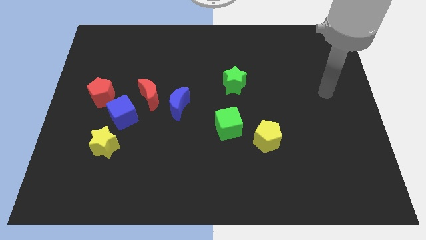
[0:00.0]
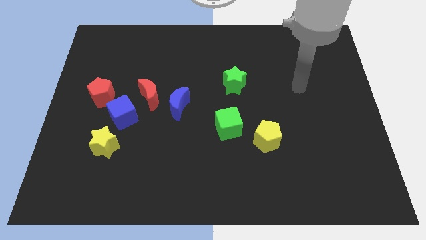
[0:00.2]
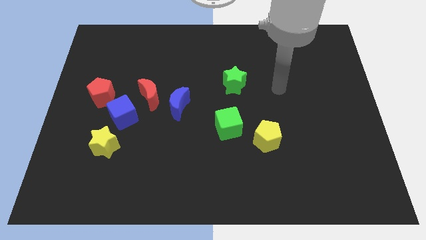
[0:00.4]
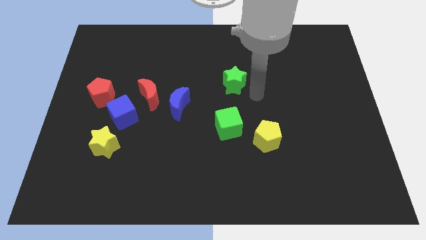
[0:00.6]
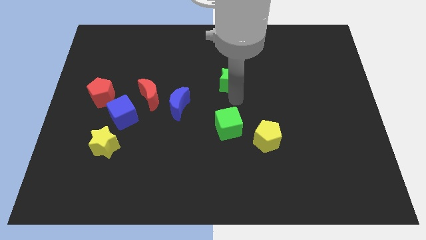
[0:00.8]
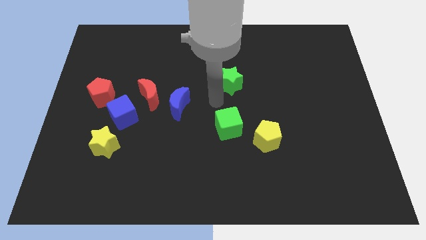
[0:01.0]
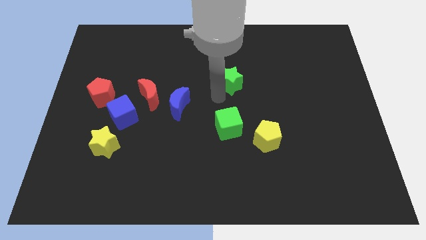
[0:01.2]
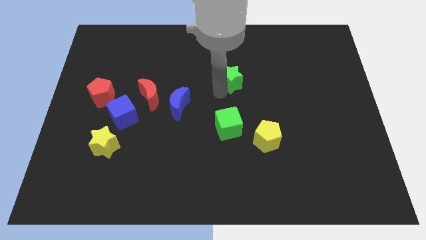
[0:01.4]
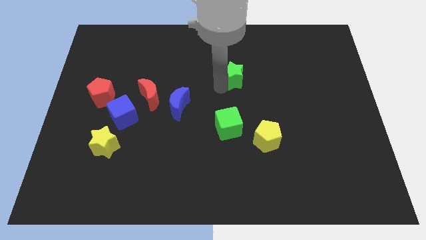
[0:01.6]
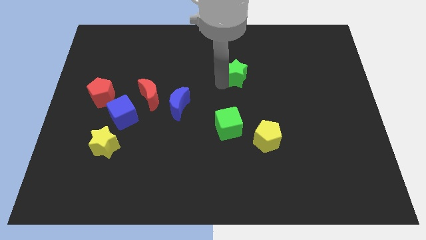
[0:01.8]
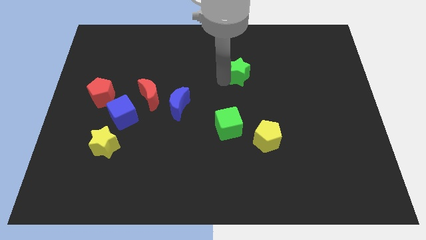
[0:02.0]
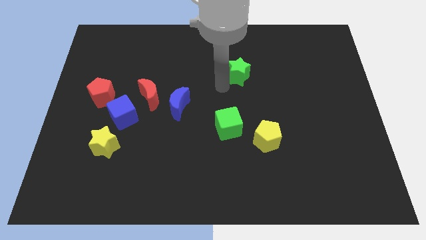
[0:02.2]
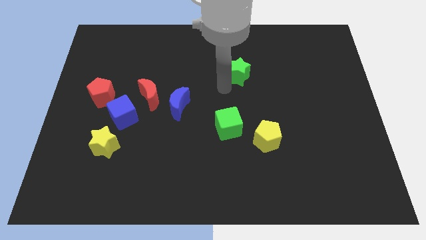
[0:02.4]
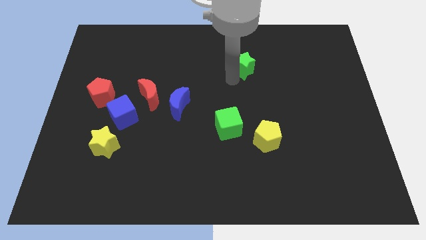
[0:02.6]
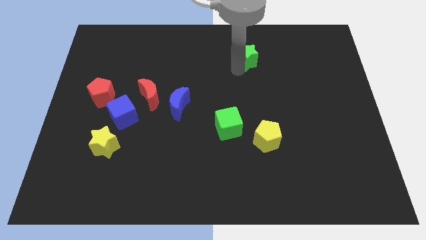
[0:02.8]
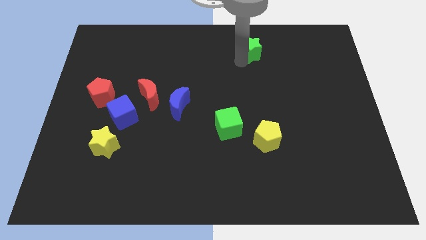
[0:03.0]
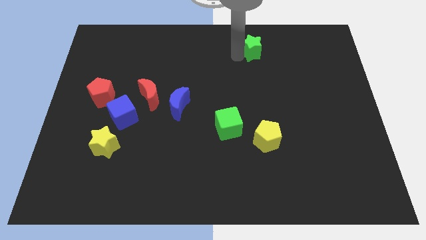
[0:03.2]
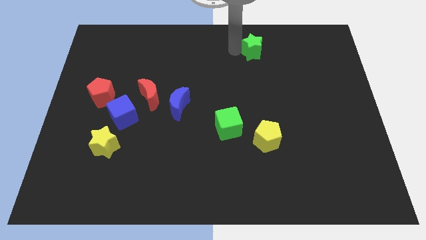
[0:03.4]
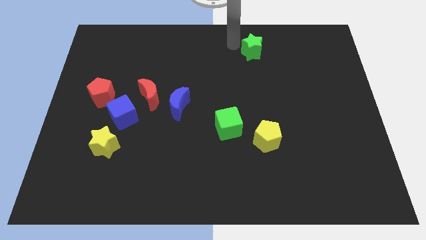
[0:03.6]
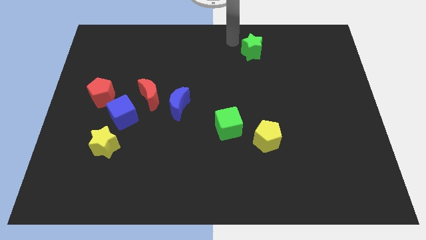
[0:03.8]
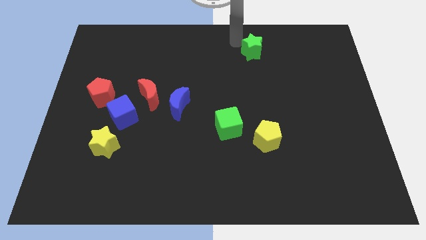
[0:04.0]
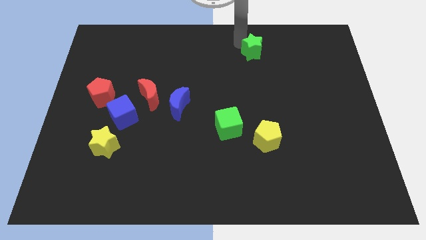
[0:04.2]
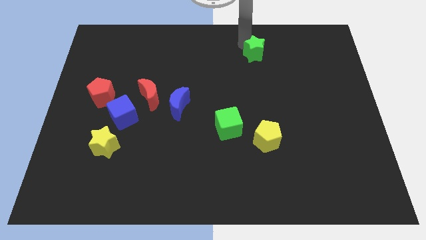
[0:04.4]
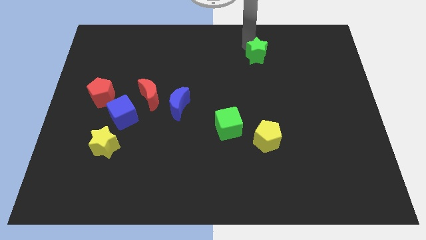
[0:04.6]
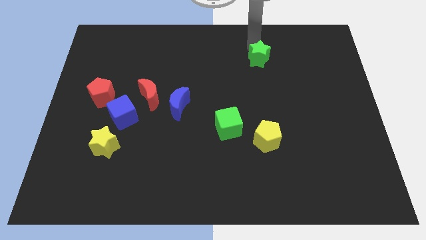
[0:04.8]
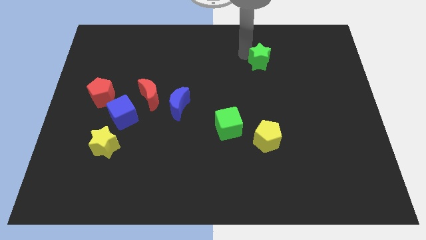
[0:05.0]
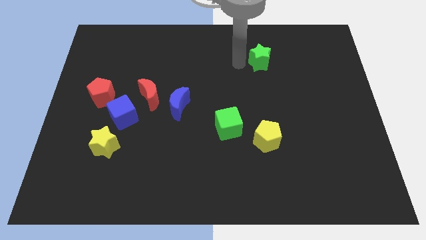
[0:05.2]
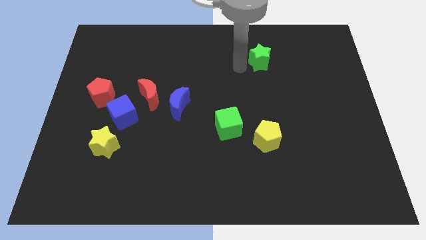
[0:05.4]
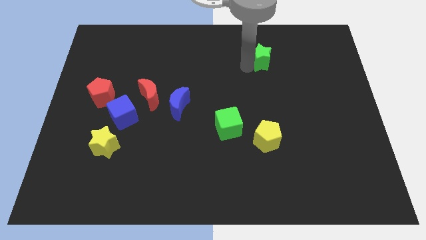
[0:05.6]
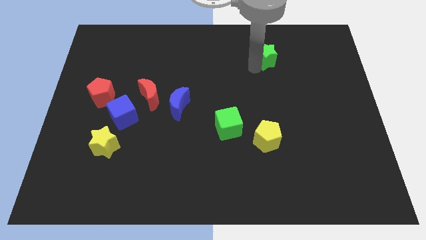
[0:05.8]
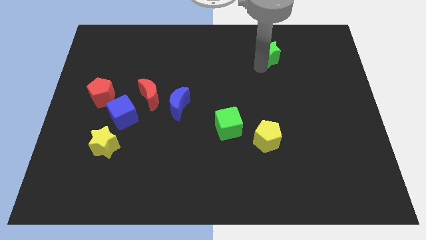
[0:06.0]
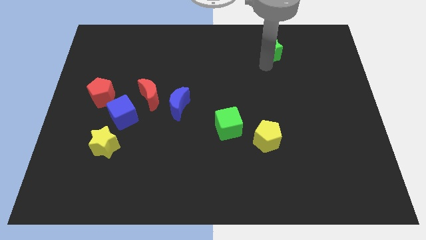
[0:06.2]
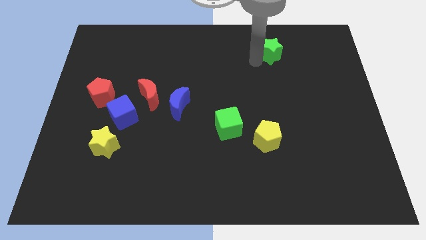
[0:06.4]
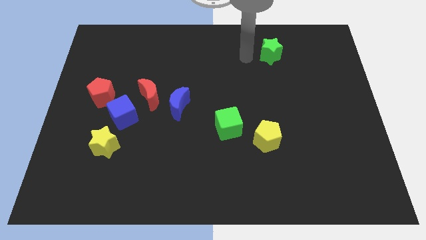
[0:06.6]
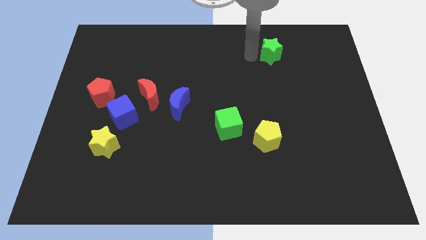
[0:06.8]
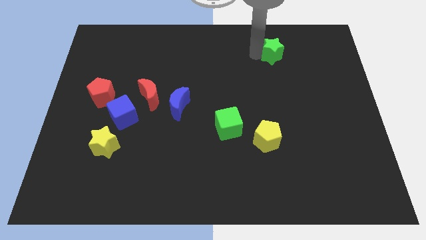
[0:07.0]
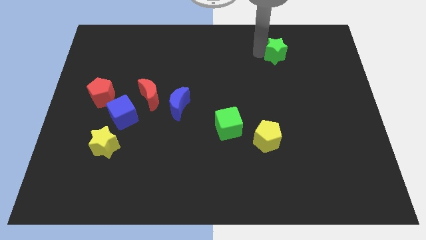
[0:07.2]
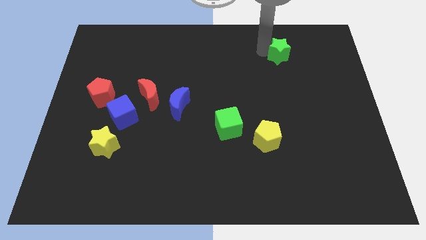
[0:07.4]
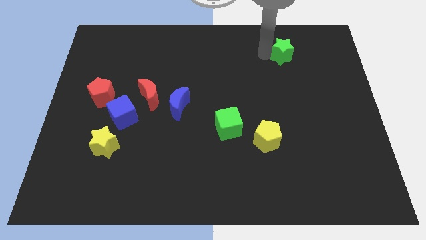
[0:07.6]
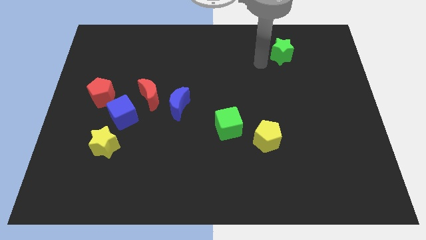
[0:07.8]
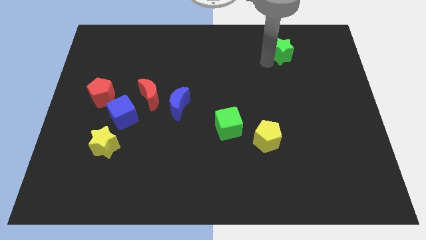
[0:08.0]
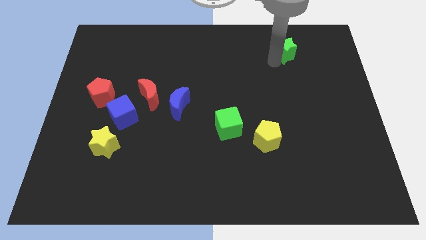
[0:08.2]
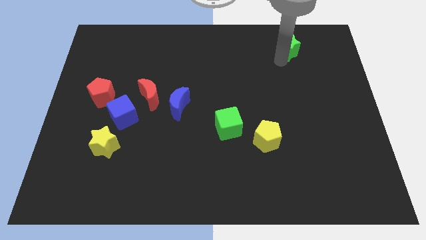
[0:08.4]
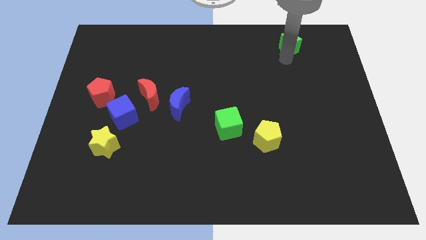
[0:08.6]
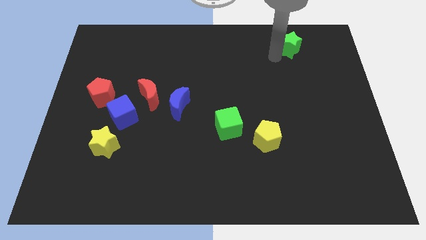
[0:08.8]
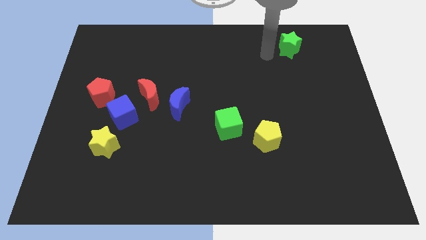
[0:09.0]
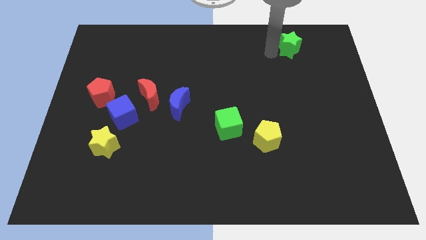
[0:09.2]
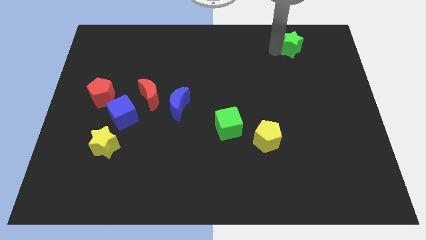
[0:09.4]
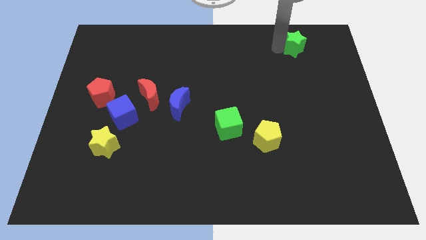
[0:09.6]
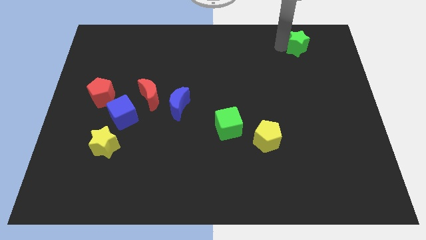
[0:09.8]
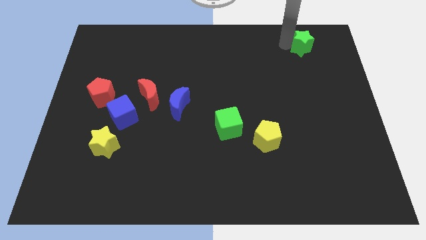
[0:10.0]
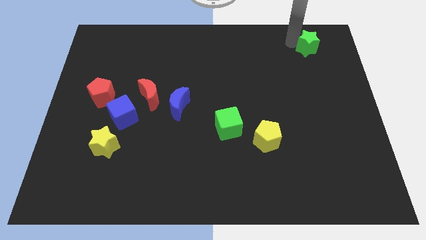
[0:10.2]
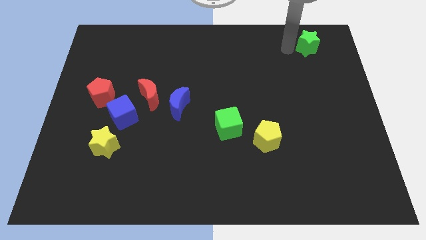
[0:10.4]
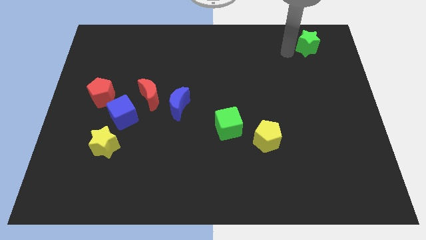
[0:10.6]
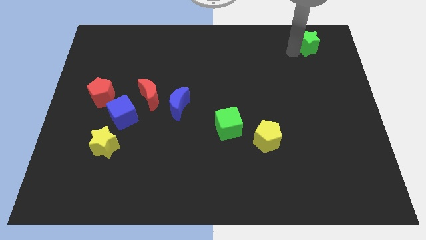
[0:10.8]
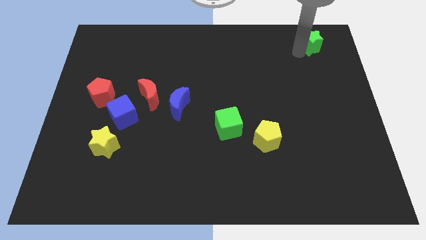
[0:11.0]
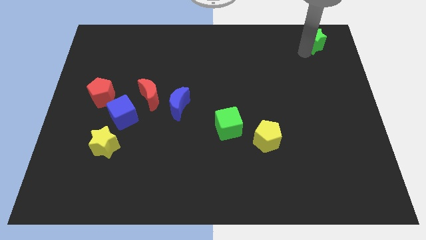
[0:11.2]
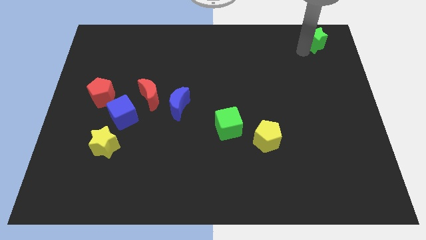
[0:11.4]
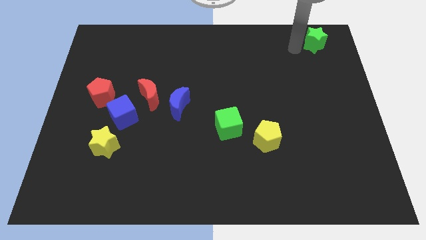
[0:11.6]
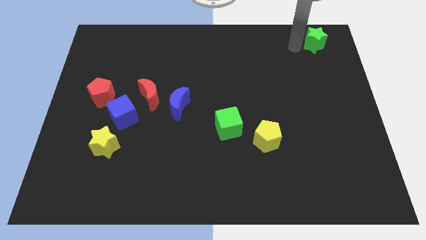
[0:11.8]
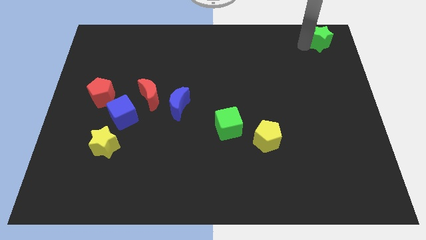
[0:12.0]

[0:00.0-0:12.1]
move the green star to the top right

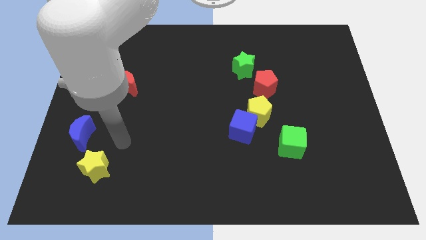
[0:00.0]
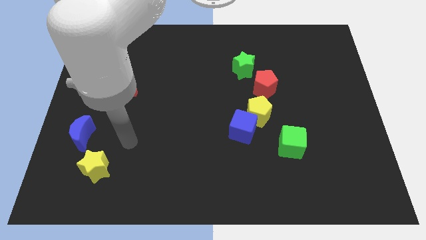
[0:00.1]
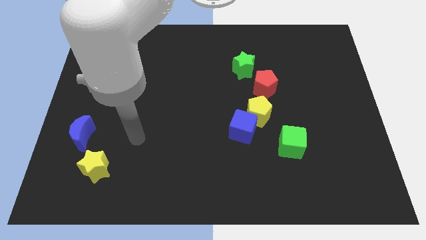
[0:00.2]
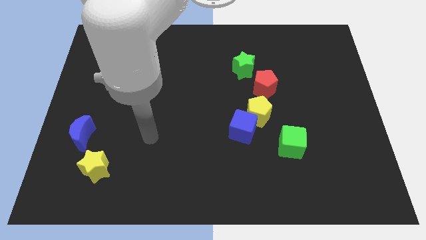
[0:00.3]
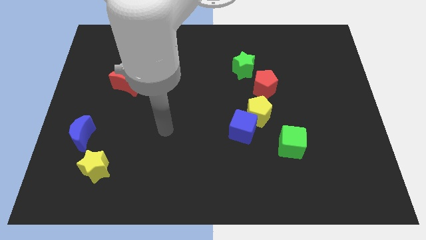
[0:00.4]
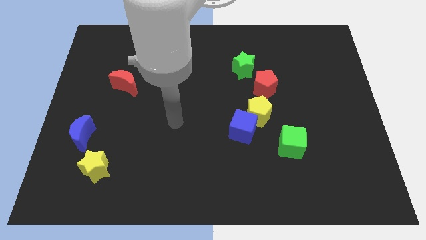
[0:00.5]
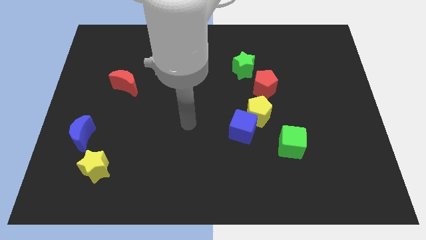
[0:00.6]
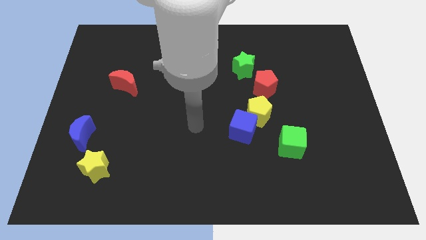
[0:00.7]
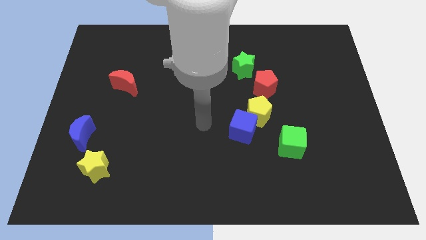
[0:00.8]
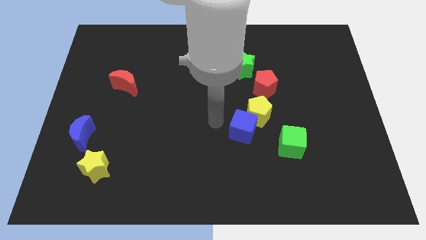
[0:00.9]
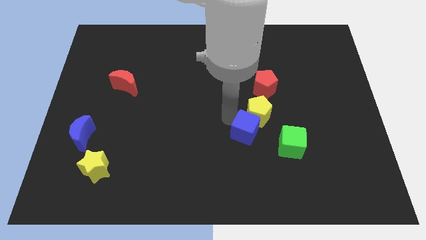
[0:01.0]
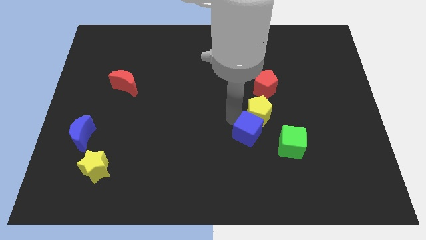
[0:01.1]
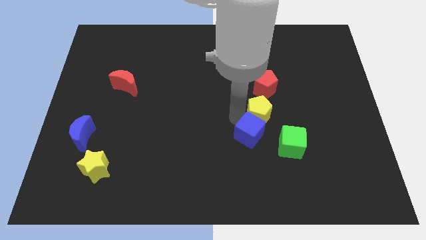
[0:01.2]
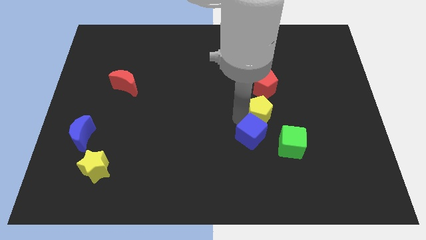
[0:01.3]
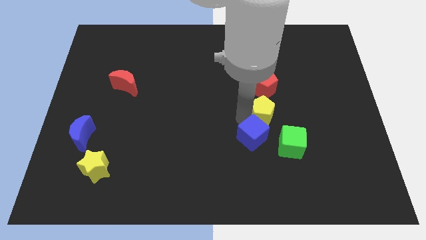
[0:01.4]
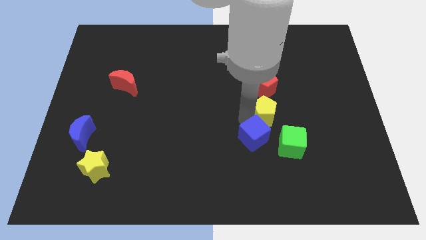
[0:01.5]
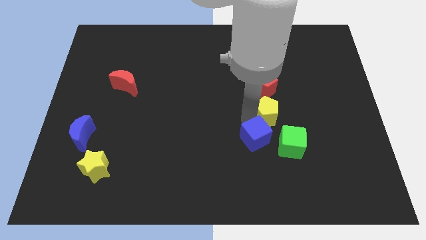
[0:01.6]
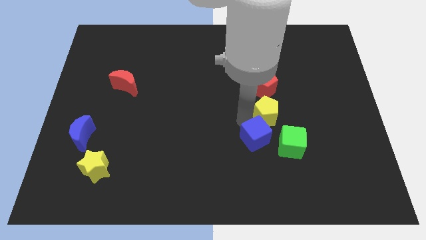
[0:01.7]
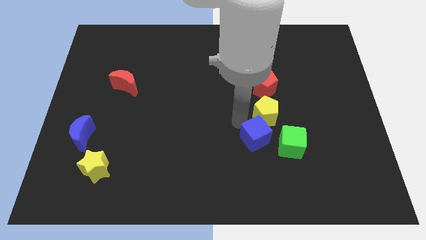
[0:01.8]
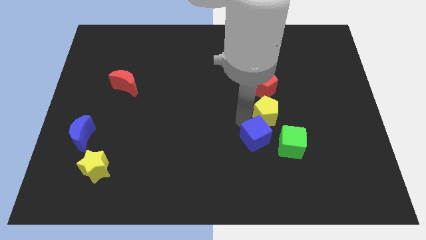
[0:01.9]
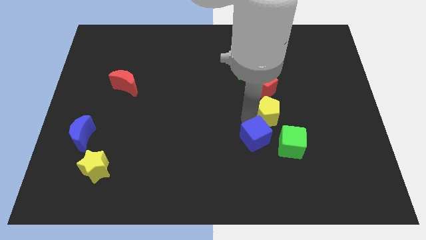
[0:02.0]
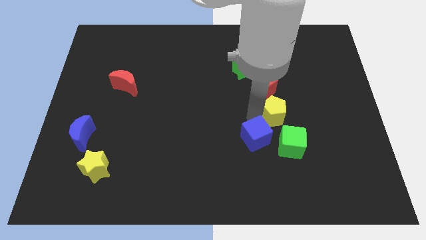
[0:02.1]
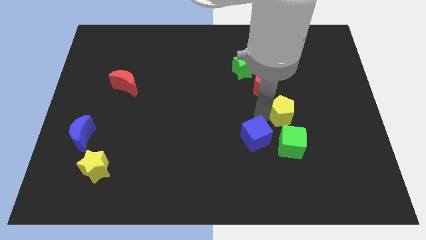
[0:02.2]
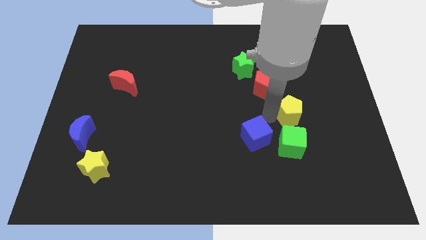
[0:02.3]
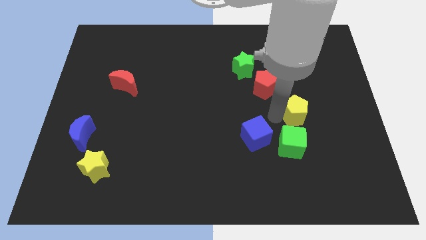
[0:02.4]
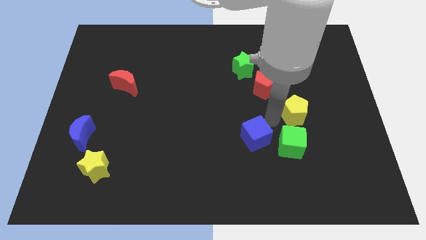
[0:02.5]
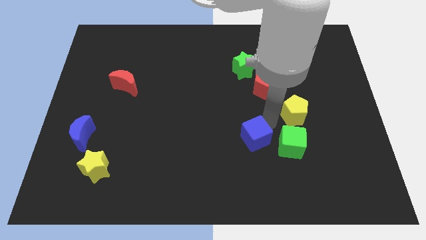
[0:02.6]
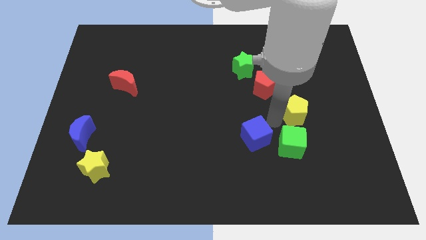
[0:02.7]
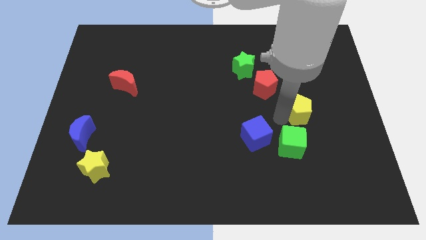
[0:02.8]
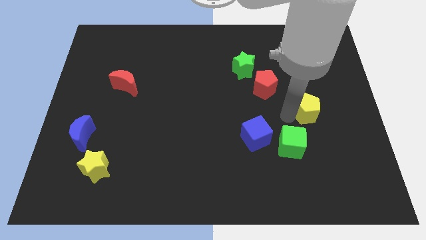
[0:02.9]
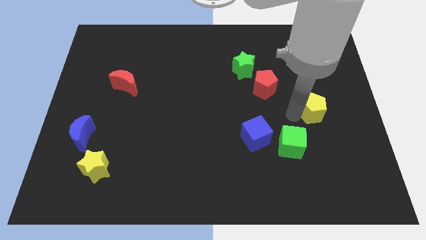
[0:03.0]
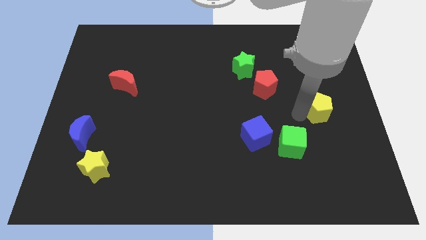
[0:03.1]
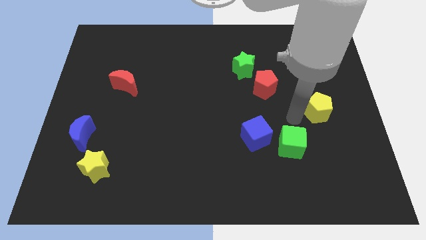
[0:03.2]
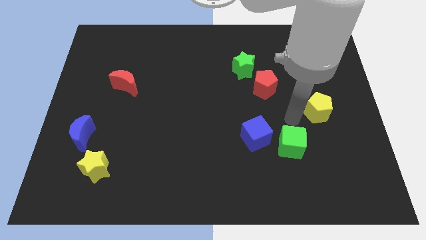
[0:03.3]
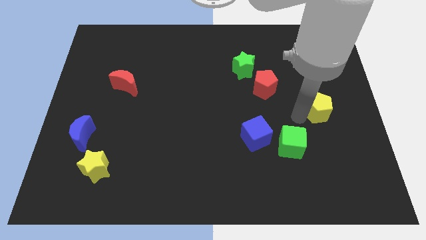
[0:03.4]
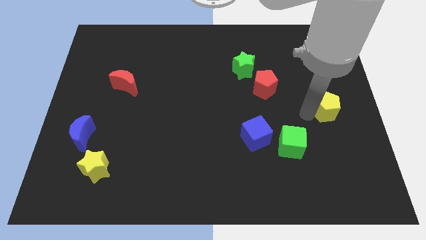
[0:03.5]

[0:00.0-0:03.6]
put the yellow pentagon to the center right
